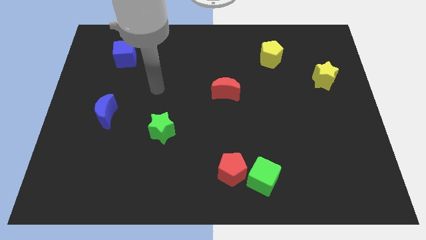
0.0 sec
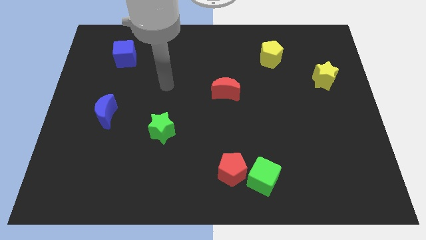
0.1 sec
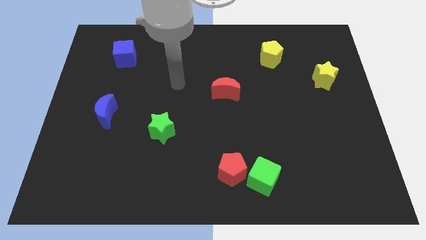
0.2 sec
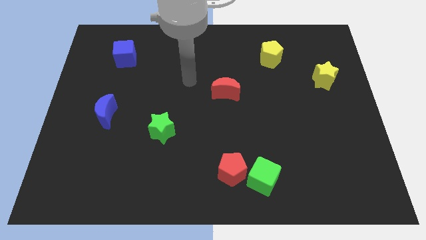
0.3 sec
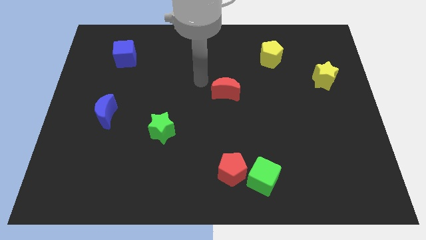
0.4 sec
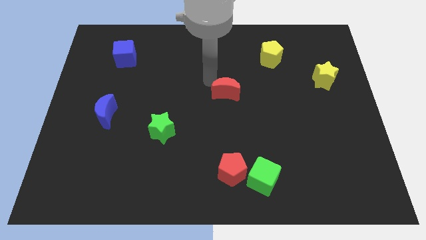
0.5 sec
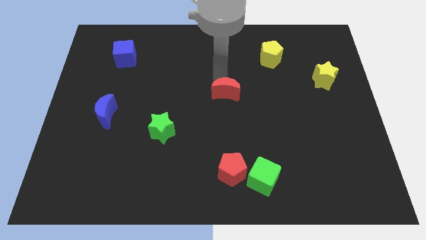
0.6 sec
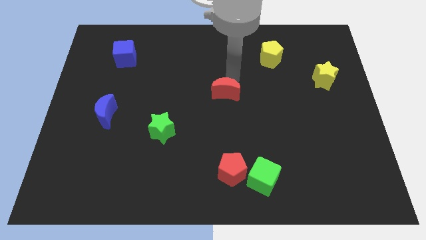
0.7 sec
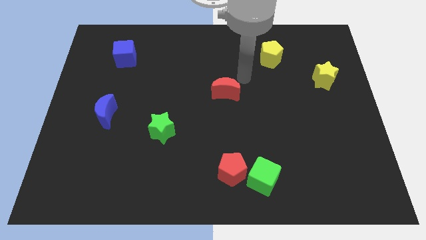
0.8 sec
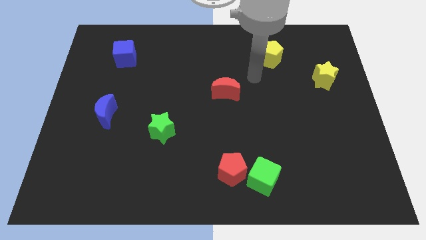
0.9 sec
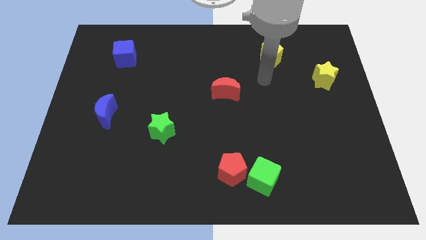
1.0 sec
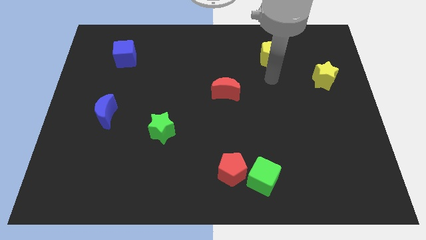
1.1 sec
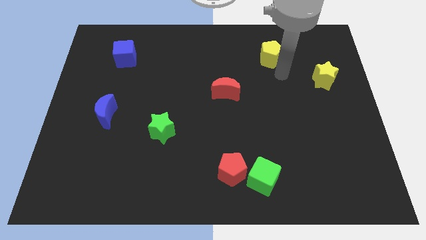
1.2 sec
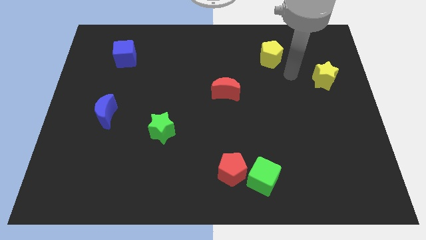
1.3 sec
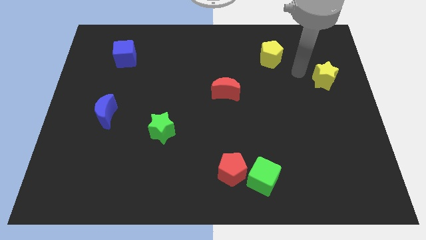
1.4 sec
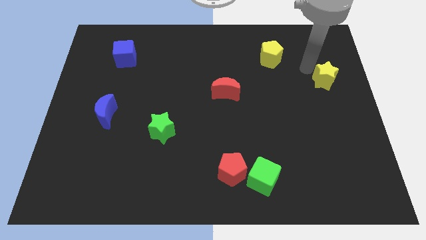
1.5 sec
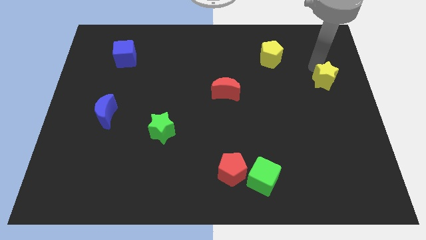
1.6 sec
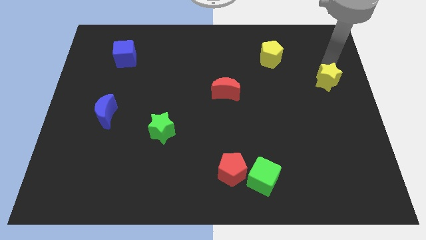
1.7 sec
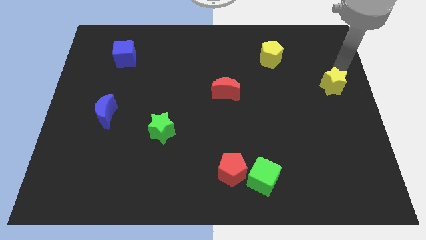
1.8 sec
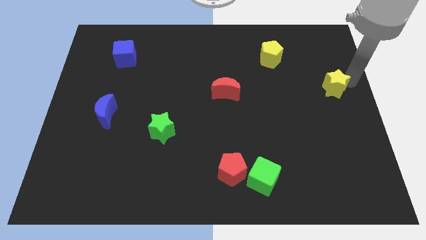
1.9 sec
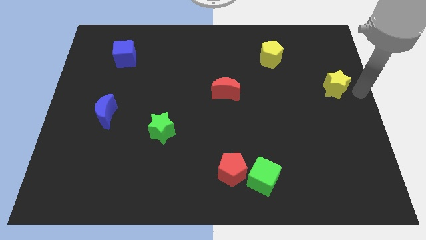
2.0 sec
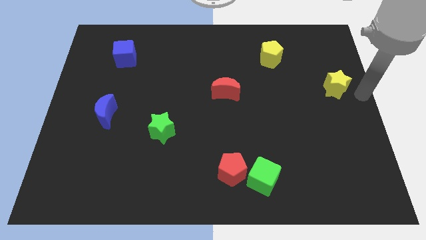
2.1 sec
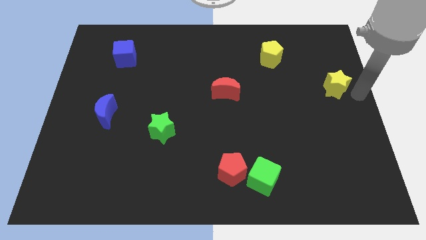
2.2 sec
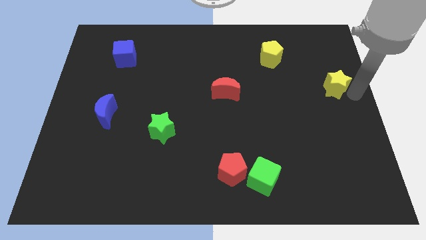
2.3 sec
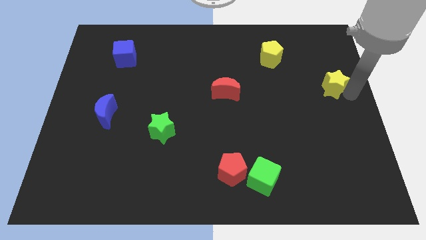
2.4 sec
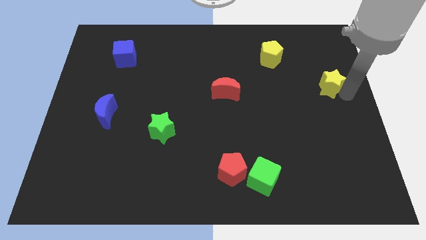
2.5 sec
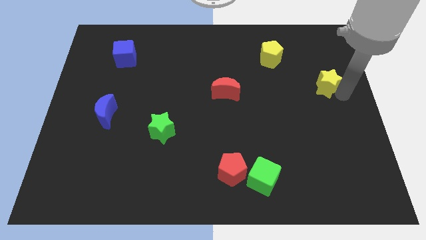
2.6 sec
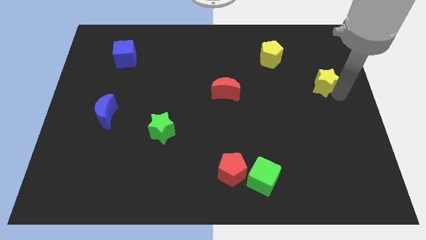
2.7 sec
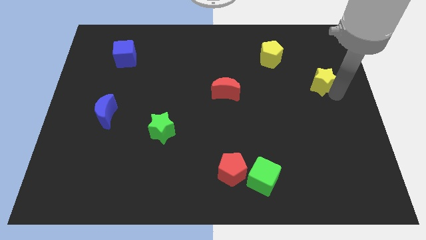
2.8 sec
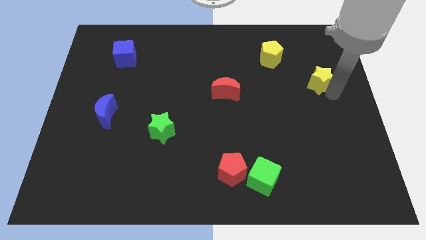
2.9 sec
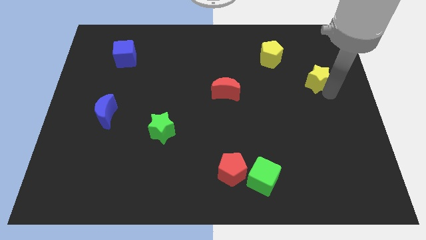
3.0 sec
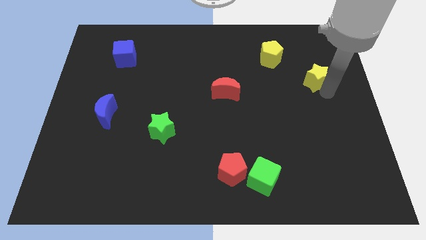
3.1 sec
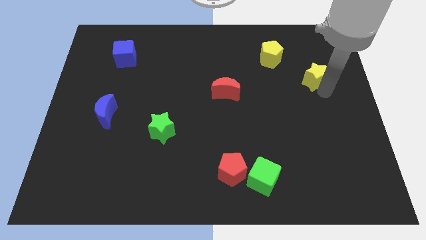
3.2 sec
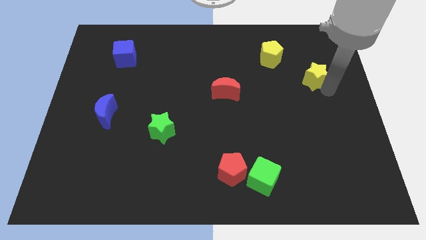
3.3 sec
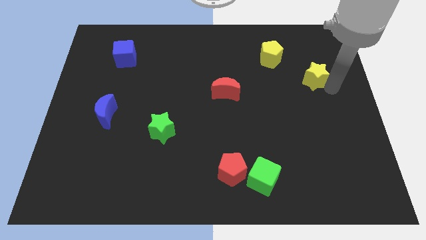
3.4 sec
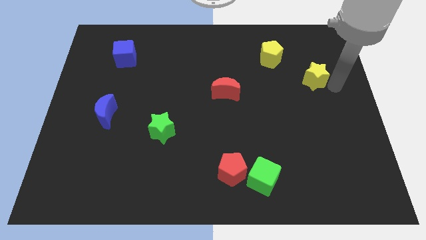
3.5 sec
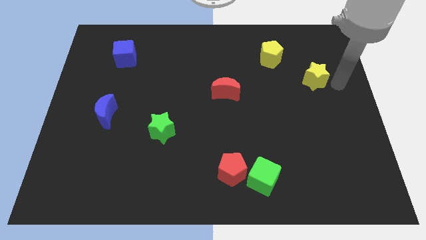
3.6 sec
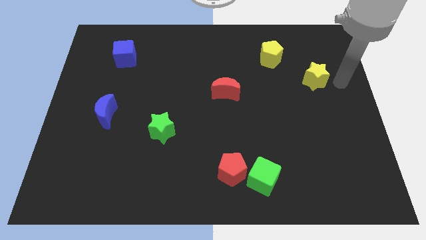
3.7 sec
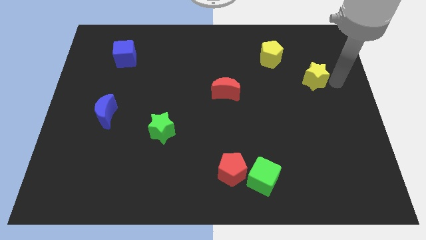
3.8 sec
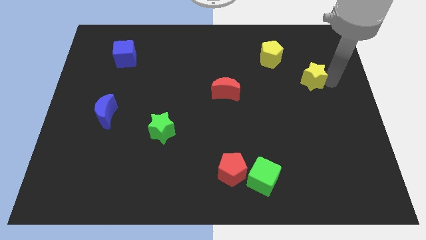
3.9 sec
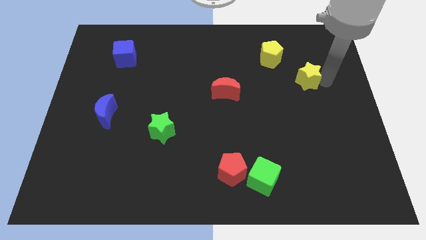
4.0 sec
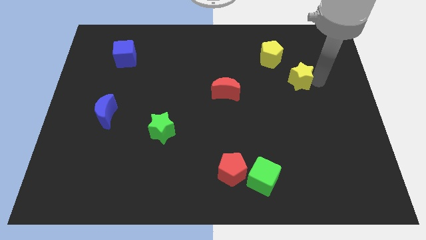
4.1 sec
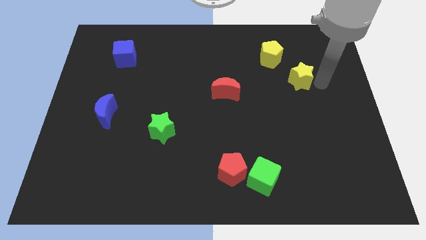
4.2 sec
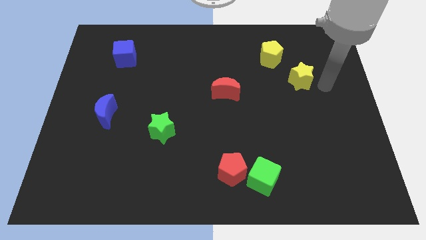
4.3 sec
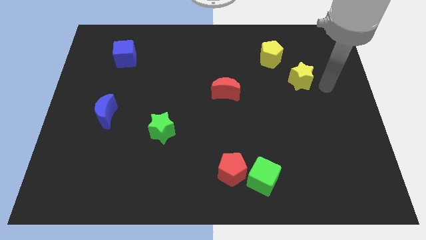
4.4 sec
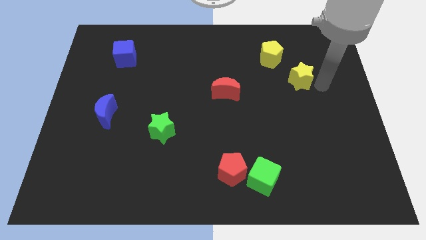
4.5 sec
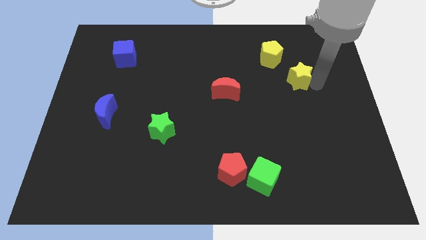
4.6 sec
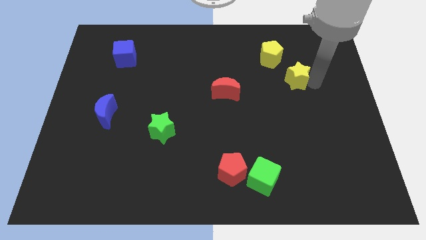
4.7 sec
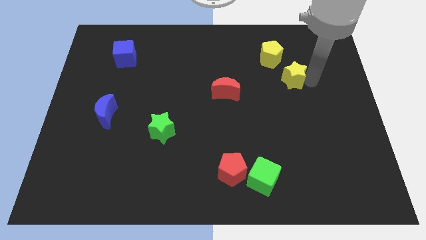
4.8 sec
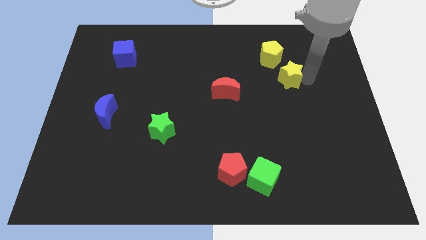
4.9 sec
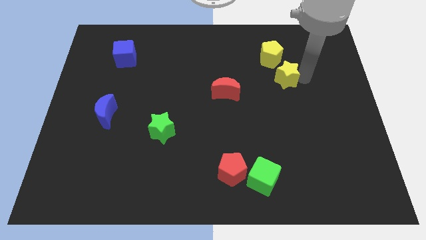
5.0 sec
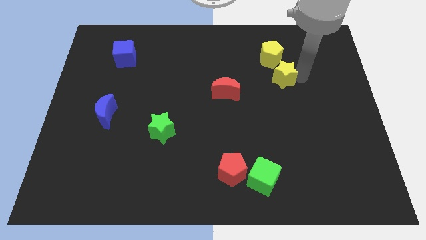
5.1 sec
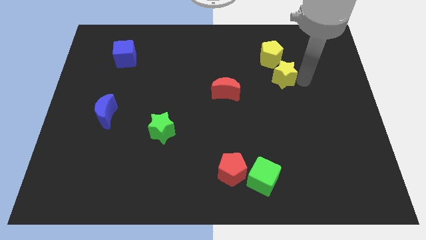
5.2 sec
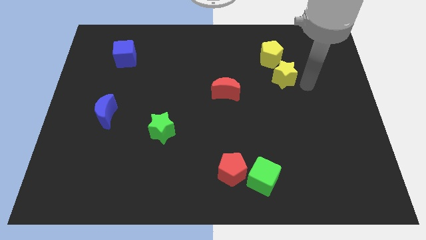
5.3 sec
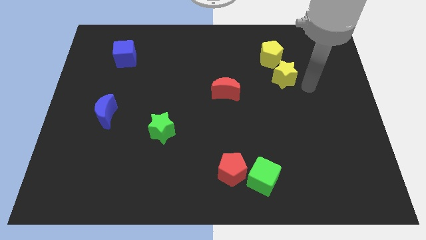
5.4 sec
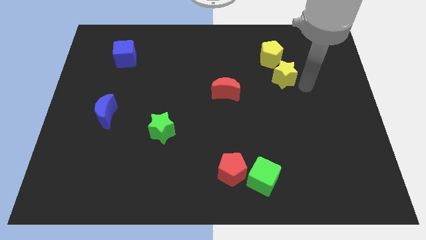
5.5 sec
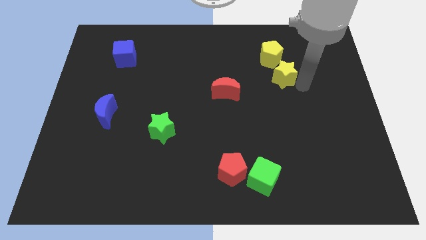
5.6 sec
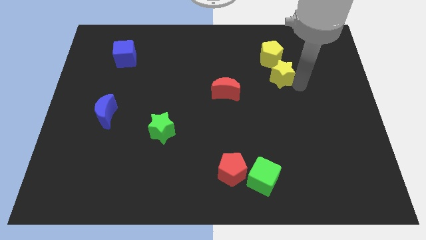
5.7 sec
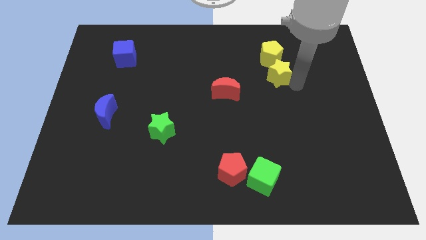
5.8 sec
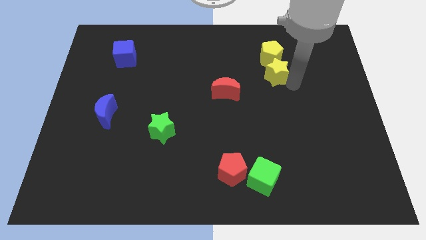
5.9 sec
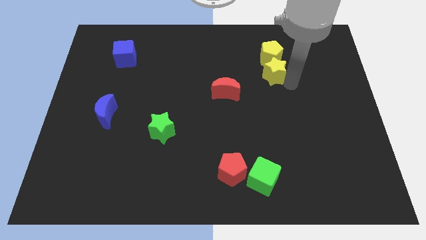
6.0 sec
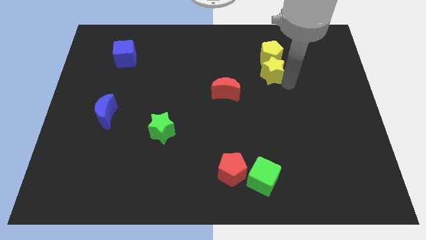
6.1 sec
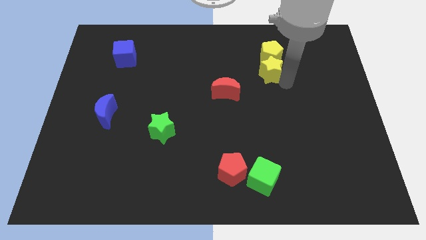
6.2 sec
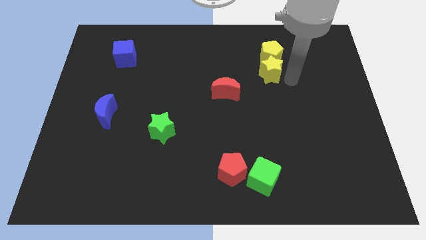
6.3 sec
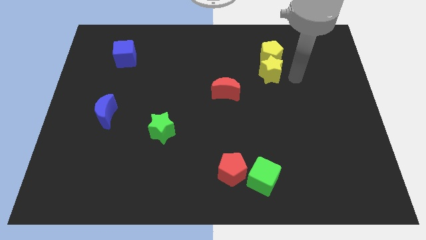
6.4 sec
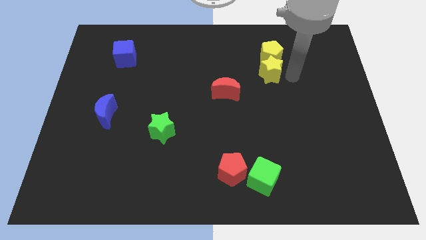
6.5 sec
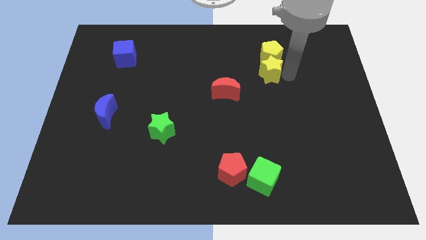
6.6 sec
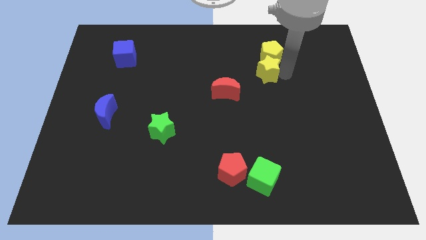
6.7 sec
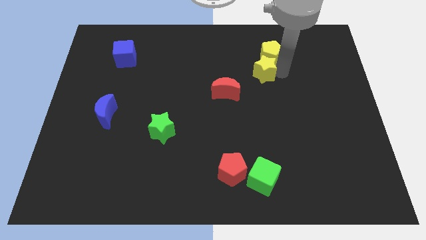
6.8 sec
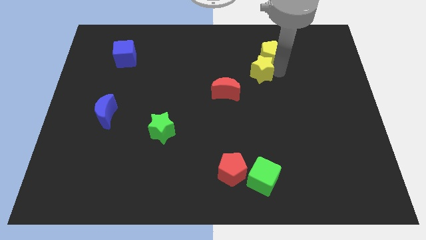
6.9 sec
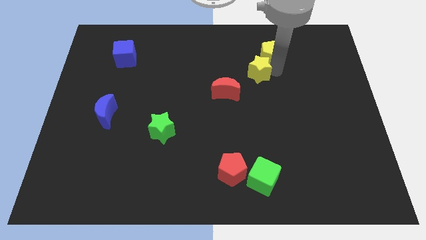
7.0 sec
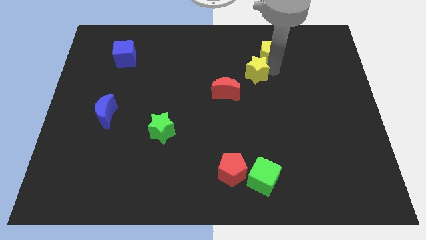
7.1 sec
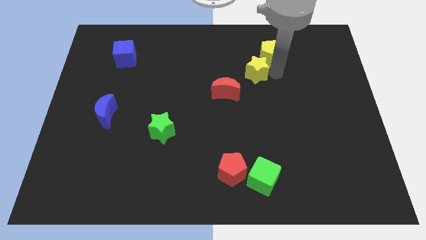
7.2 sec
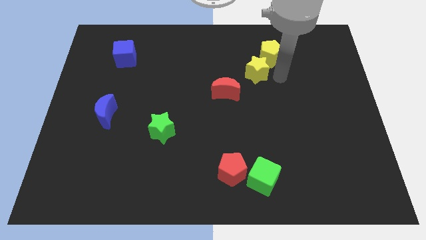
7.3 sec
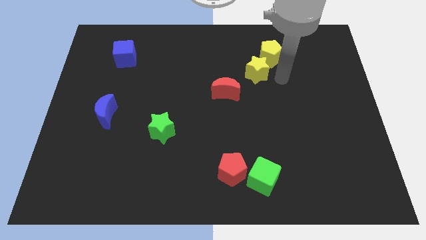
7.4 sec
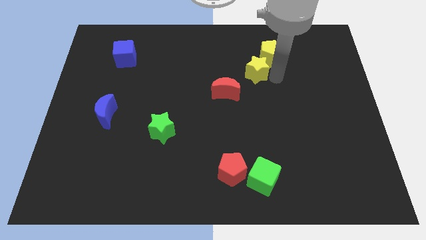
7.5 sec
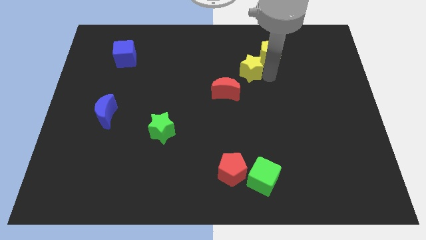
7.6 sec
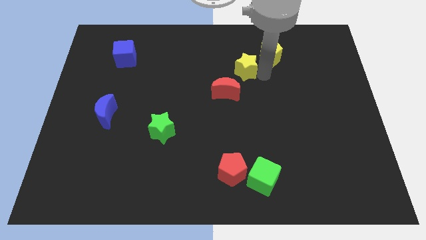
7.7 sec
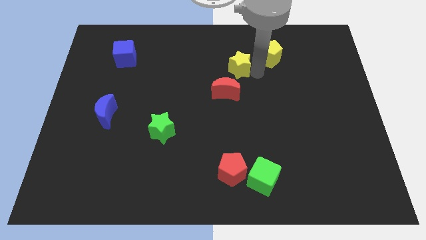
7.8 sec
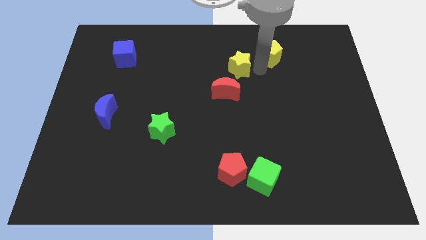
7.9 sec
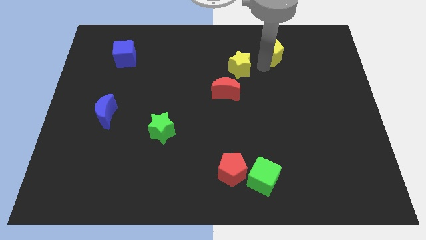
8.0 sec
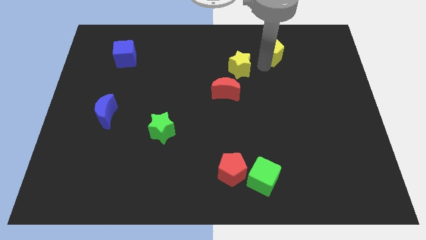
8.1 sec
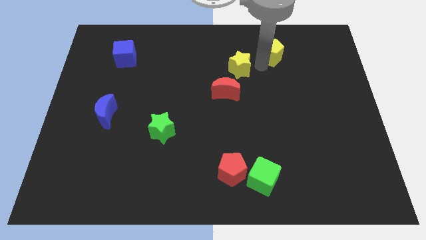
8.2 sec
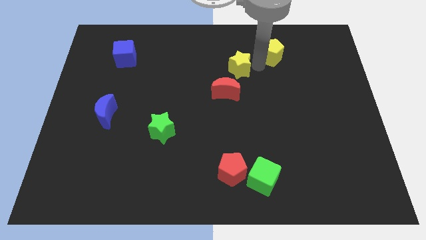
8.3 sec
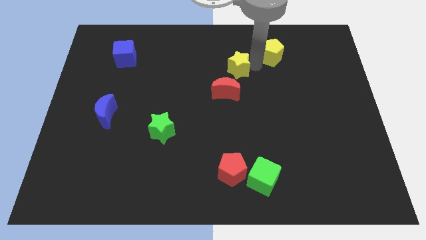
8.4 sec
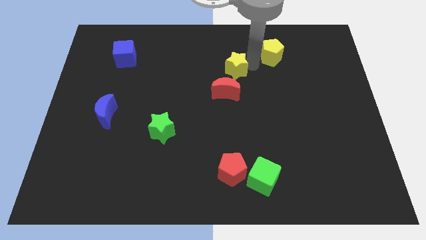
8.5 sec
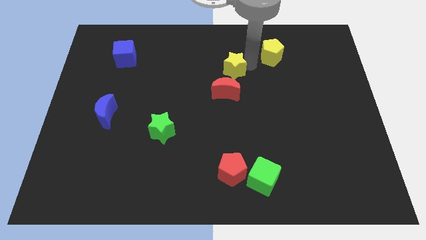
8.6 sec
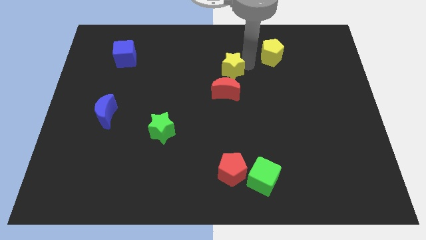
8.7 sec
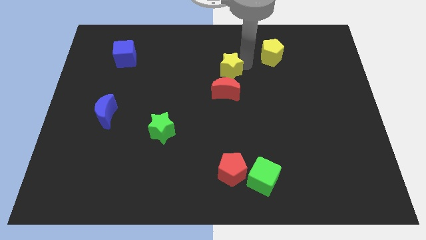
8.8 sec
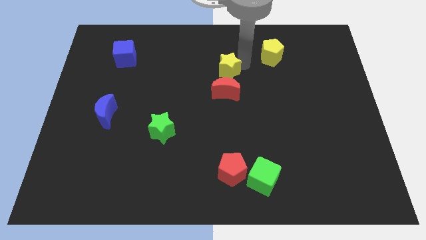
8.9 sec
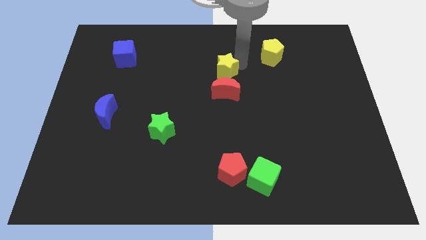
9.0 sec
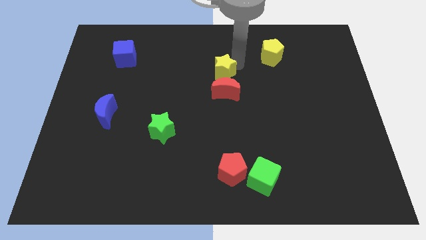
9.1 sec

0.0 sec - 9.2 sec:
push the yellow star to the top left side of the red moon
